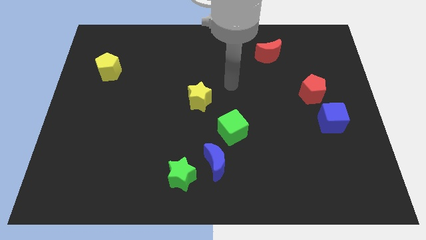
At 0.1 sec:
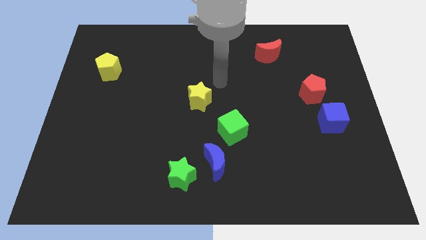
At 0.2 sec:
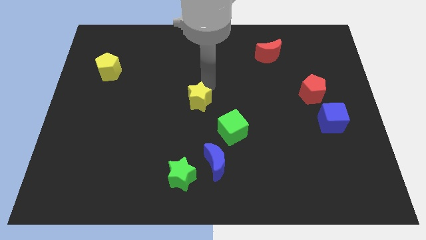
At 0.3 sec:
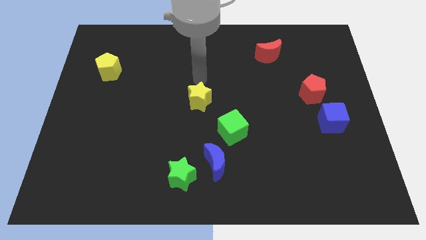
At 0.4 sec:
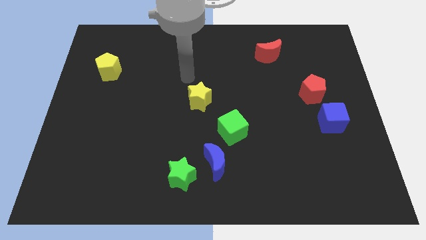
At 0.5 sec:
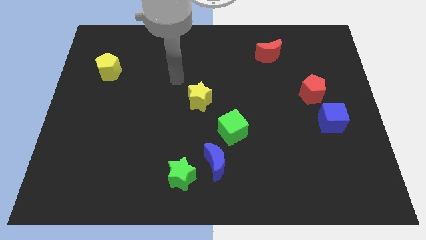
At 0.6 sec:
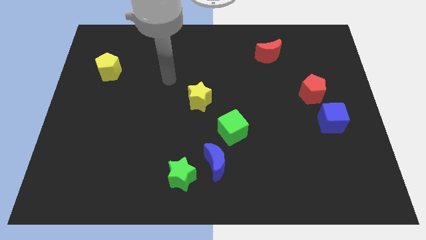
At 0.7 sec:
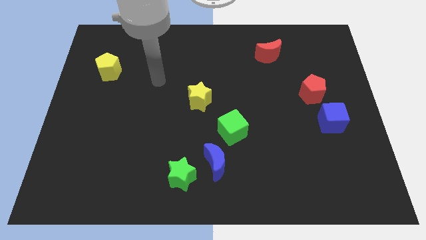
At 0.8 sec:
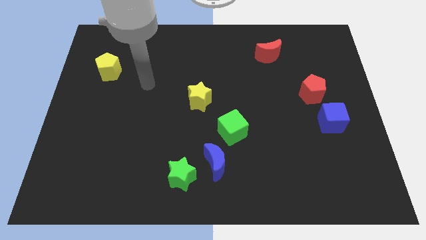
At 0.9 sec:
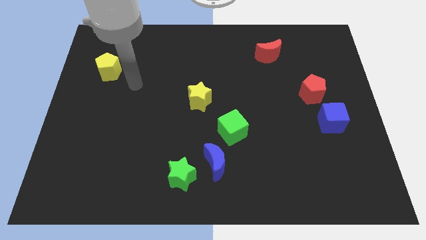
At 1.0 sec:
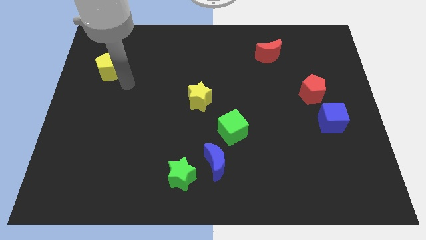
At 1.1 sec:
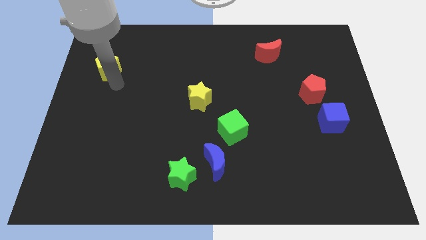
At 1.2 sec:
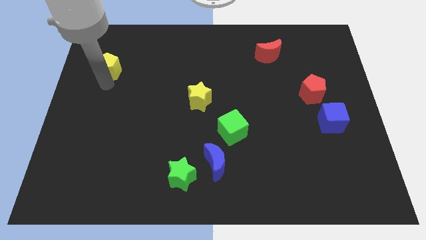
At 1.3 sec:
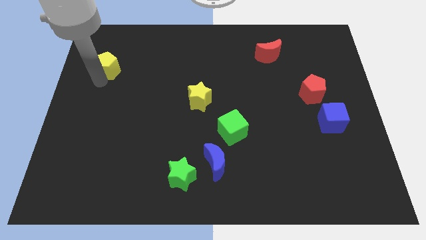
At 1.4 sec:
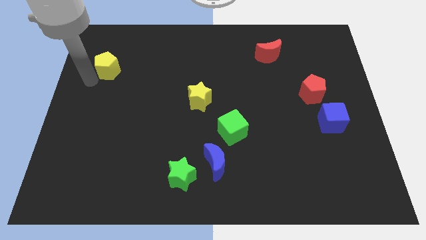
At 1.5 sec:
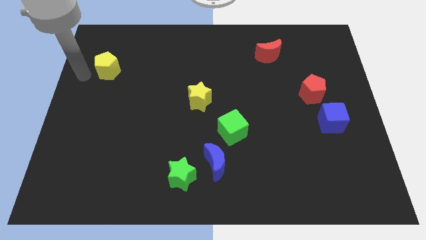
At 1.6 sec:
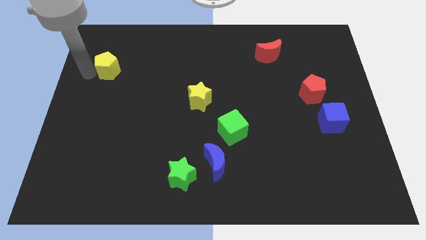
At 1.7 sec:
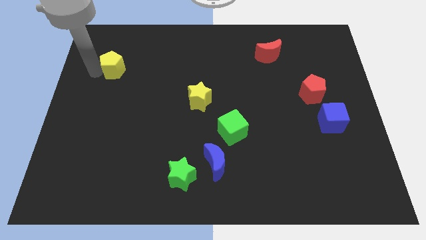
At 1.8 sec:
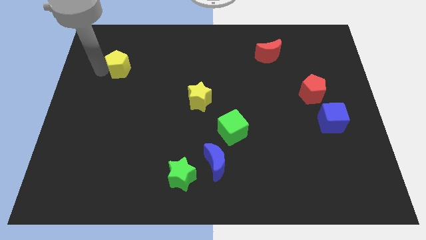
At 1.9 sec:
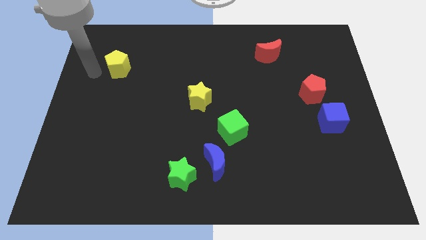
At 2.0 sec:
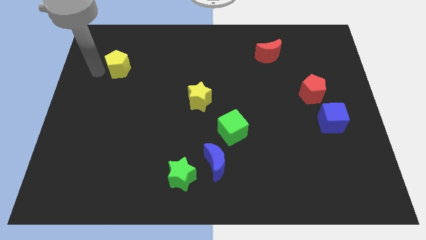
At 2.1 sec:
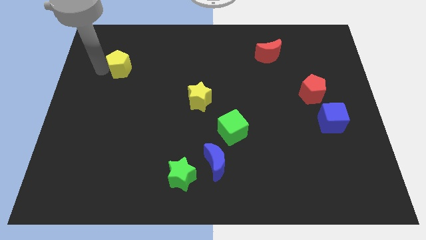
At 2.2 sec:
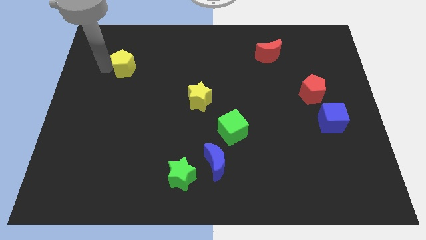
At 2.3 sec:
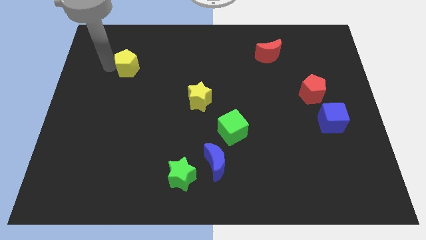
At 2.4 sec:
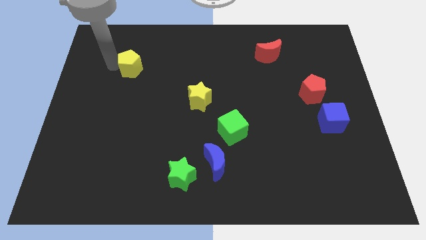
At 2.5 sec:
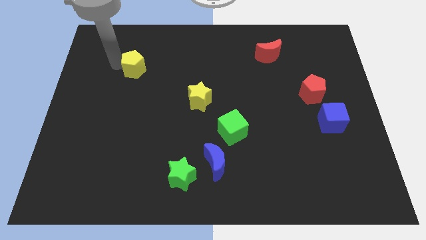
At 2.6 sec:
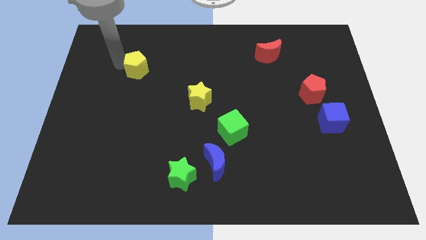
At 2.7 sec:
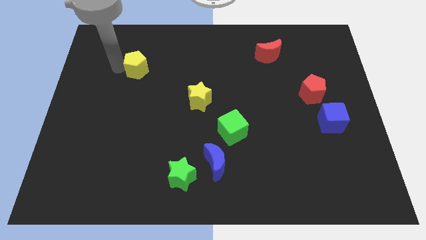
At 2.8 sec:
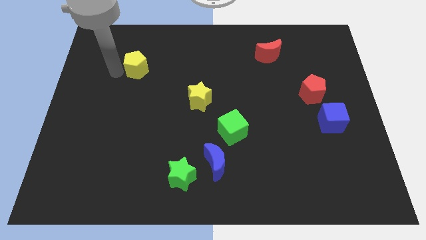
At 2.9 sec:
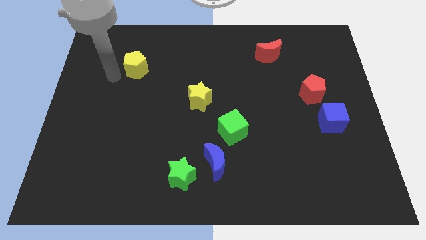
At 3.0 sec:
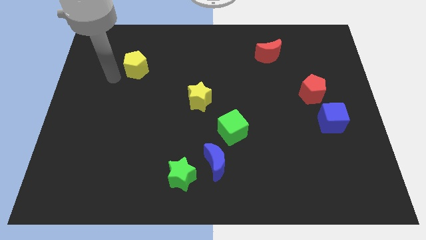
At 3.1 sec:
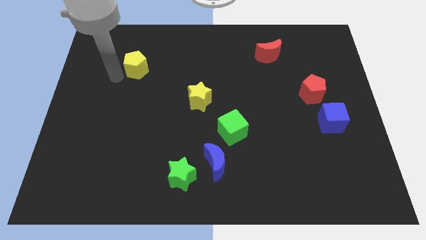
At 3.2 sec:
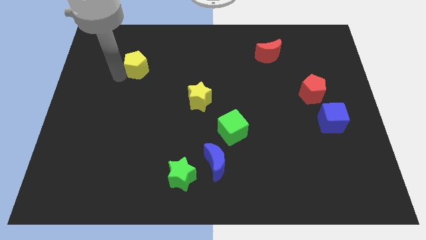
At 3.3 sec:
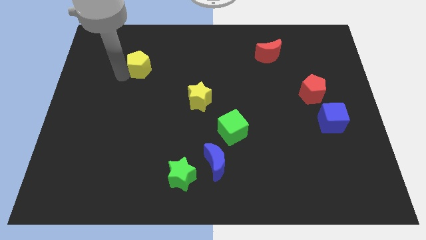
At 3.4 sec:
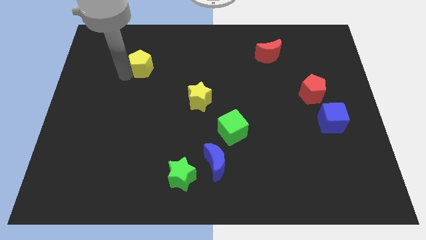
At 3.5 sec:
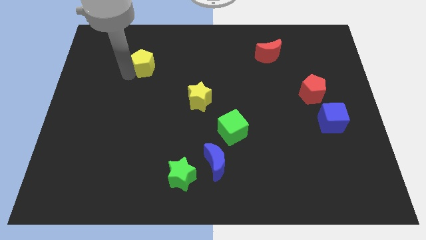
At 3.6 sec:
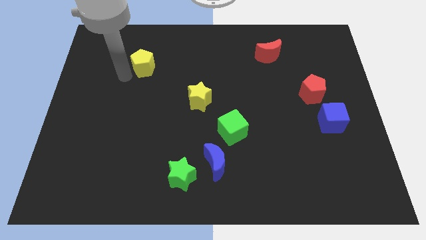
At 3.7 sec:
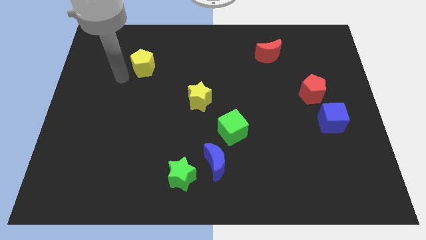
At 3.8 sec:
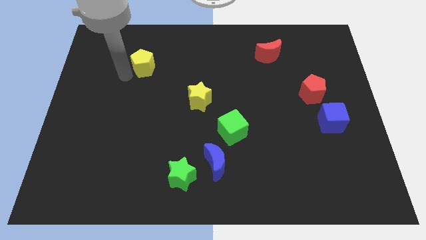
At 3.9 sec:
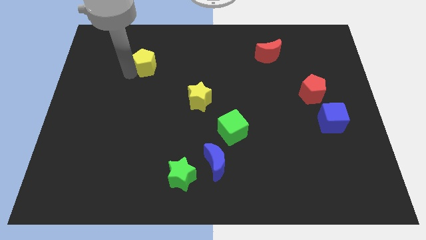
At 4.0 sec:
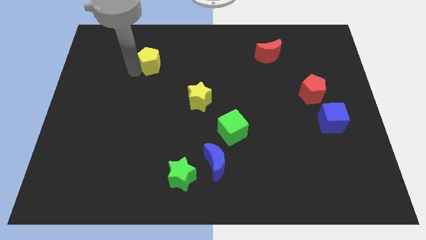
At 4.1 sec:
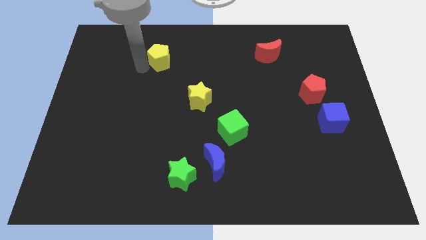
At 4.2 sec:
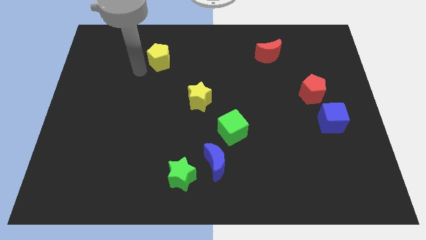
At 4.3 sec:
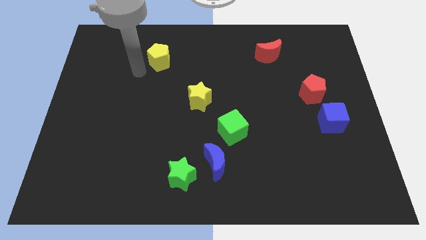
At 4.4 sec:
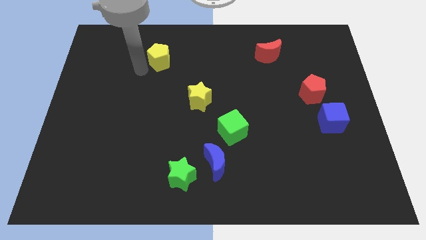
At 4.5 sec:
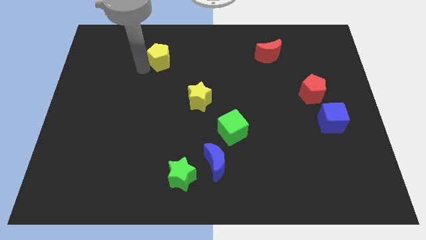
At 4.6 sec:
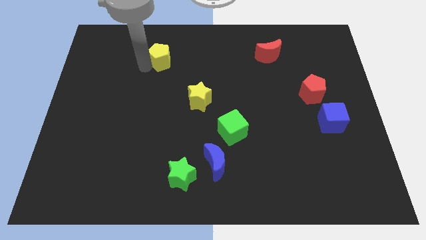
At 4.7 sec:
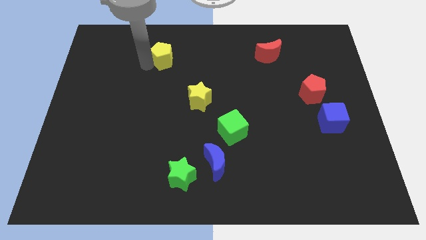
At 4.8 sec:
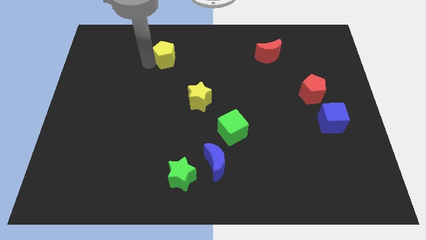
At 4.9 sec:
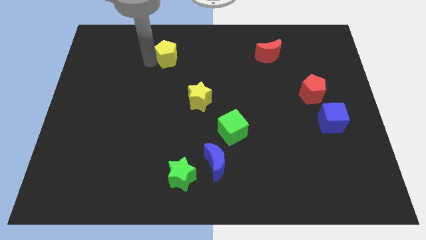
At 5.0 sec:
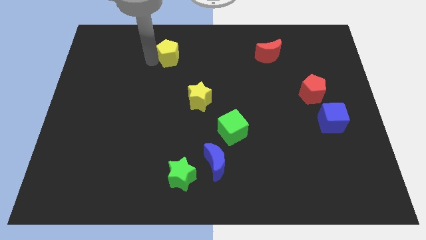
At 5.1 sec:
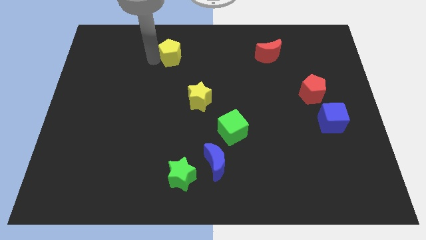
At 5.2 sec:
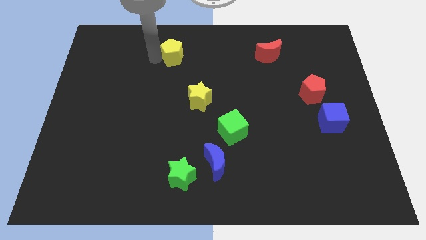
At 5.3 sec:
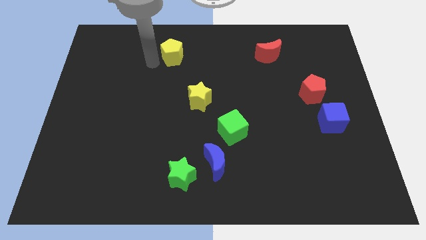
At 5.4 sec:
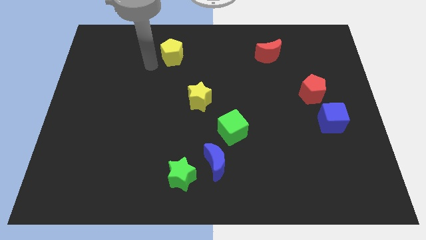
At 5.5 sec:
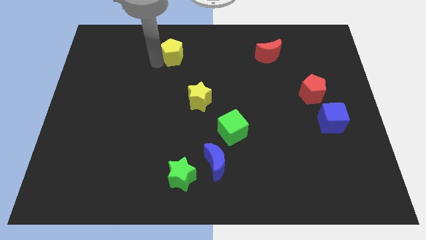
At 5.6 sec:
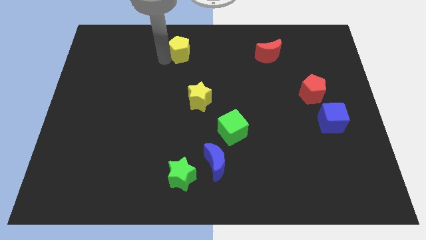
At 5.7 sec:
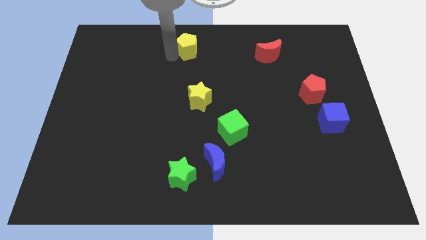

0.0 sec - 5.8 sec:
push the yellow pentagon to the top side

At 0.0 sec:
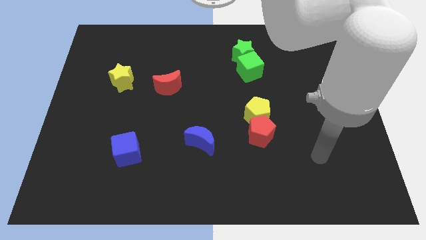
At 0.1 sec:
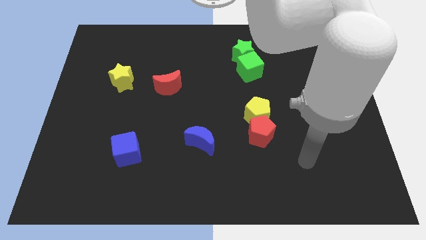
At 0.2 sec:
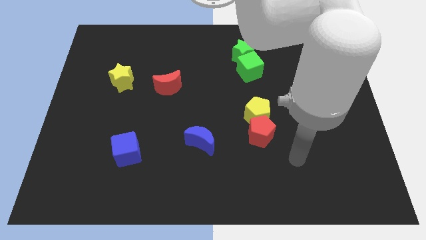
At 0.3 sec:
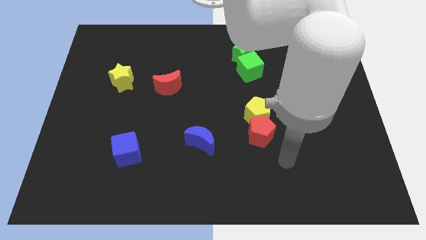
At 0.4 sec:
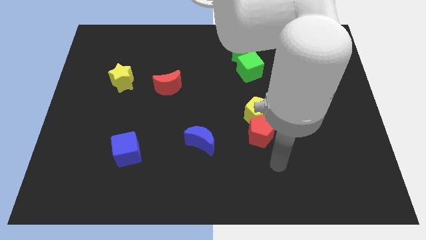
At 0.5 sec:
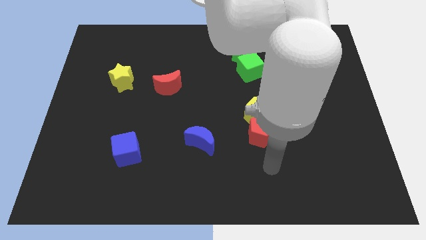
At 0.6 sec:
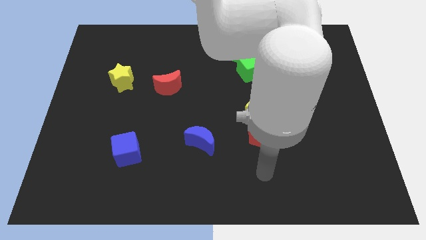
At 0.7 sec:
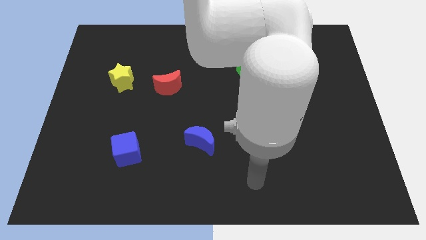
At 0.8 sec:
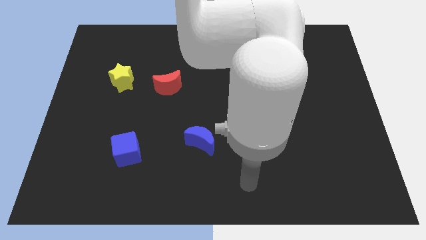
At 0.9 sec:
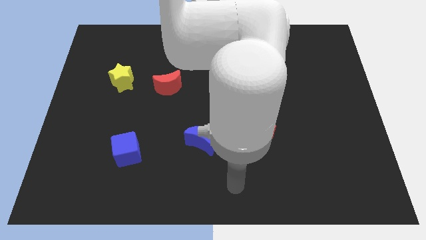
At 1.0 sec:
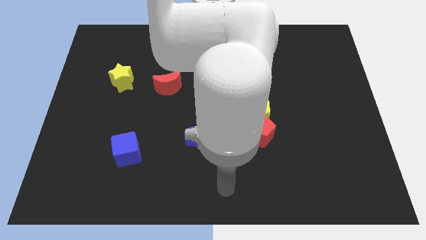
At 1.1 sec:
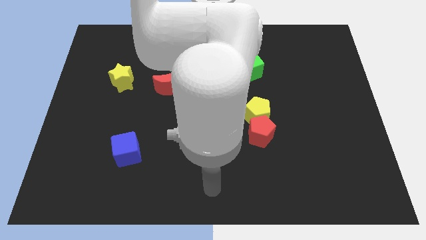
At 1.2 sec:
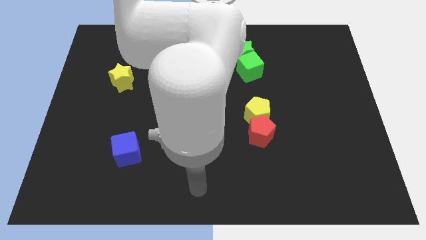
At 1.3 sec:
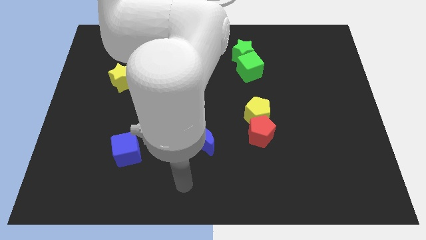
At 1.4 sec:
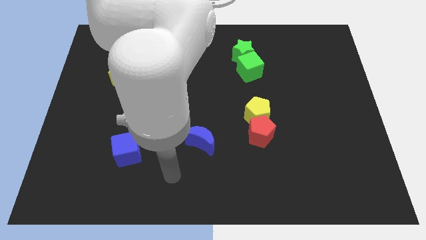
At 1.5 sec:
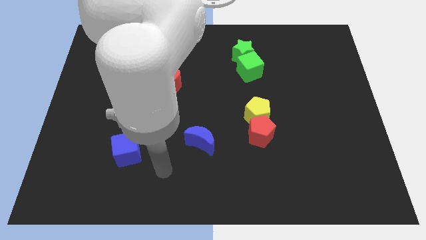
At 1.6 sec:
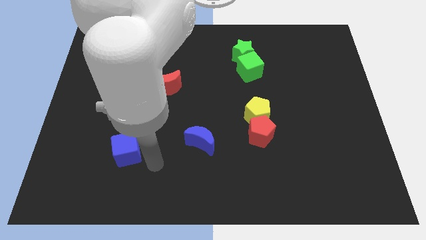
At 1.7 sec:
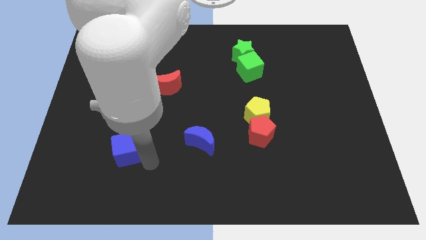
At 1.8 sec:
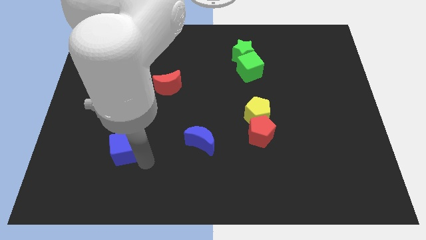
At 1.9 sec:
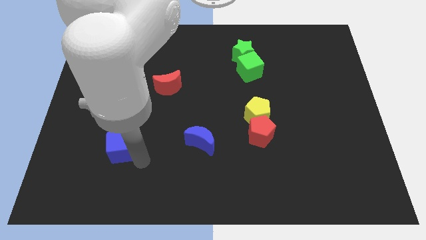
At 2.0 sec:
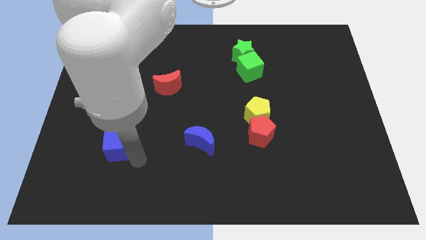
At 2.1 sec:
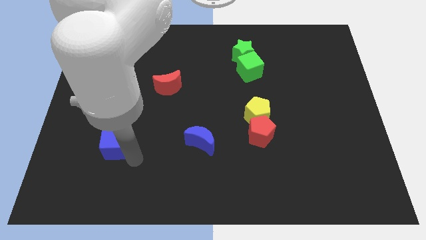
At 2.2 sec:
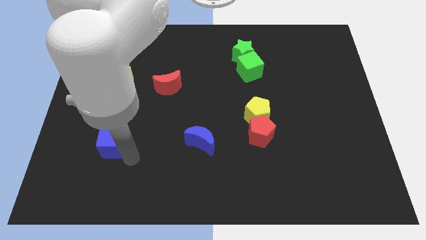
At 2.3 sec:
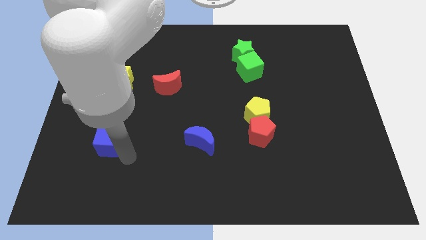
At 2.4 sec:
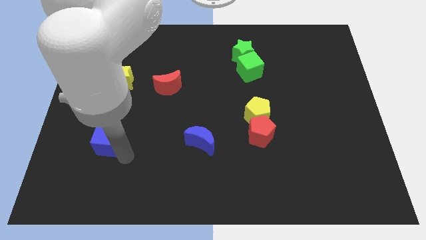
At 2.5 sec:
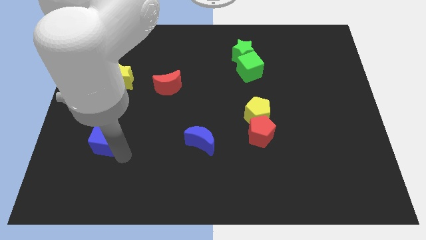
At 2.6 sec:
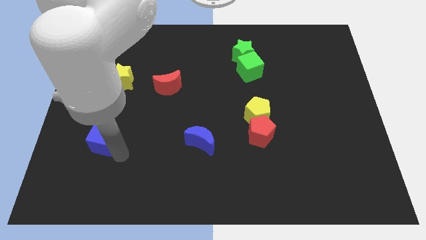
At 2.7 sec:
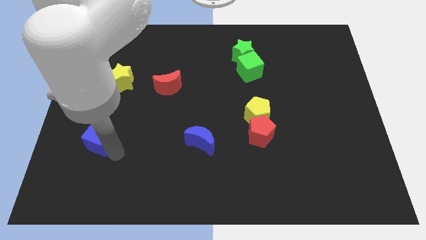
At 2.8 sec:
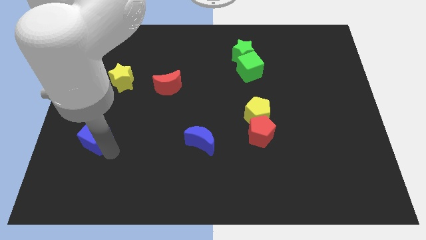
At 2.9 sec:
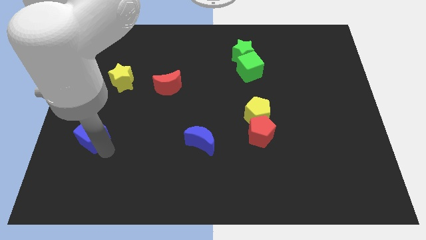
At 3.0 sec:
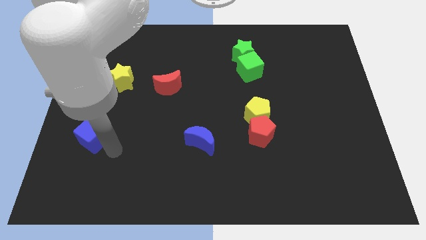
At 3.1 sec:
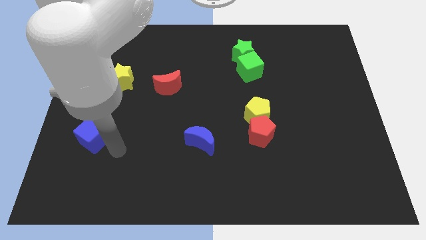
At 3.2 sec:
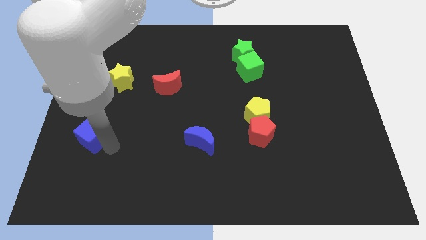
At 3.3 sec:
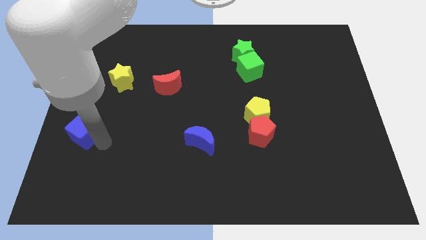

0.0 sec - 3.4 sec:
move the blue cube to the left side
